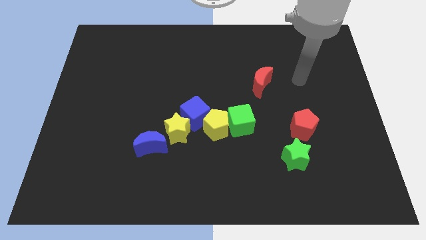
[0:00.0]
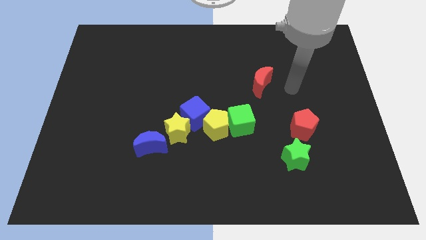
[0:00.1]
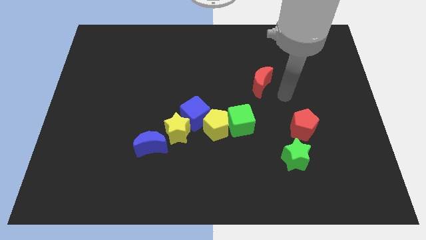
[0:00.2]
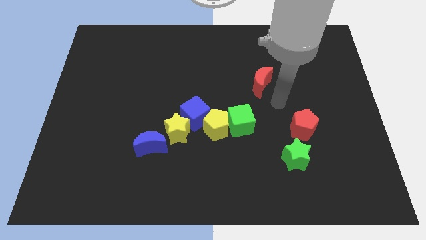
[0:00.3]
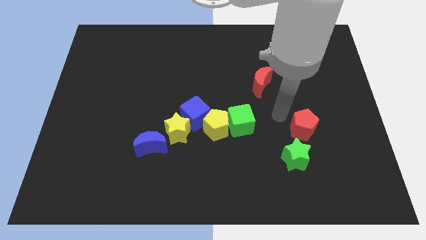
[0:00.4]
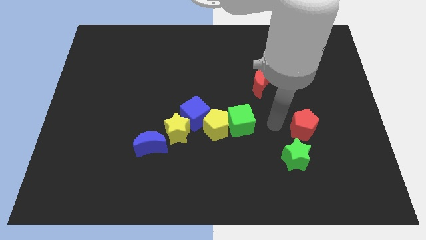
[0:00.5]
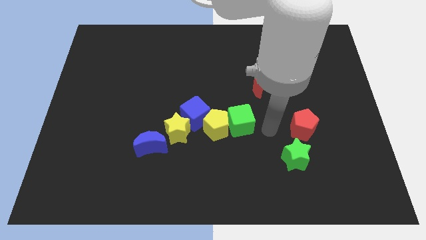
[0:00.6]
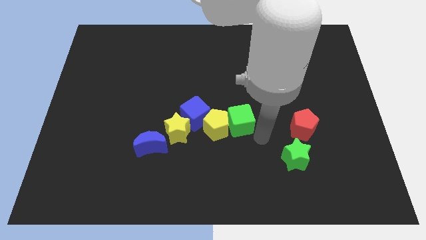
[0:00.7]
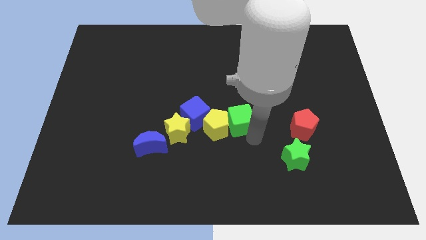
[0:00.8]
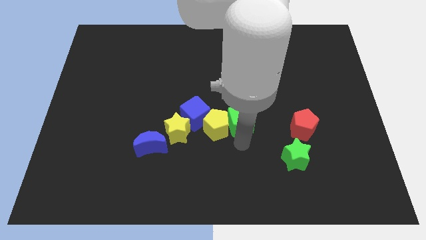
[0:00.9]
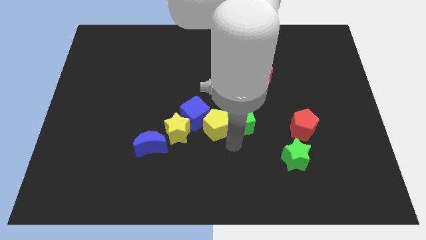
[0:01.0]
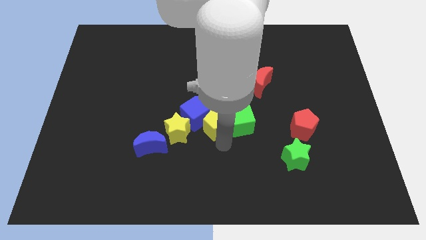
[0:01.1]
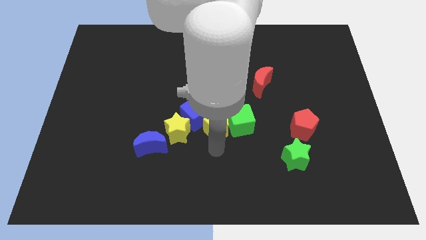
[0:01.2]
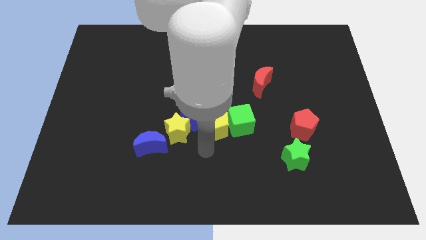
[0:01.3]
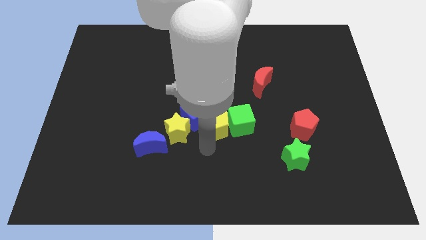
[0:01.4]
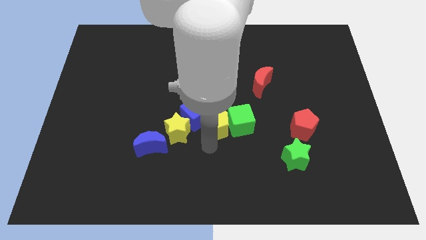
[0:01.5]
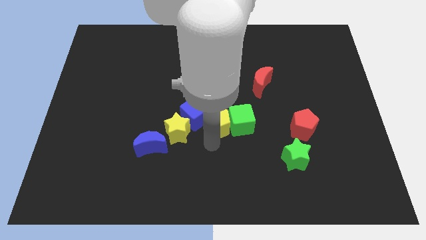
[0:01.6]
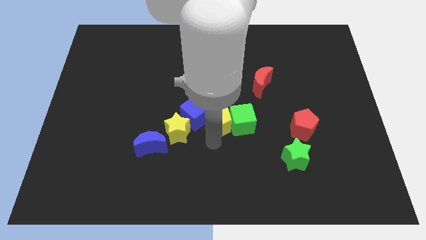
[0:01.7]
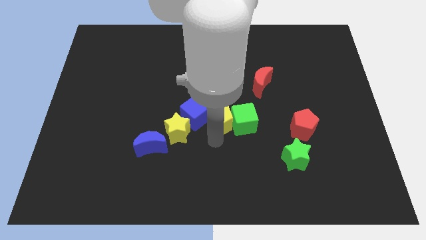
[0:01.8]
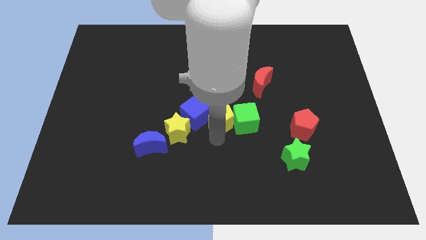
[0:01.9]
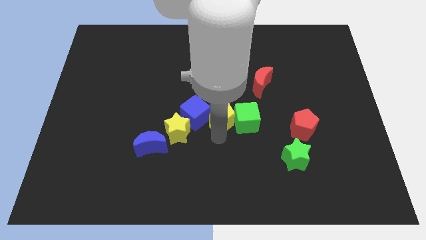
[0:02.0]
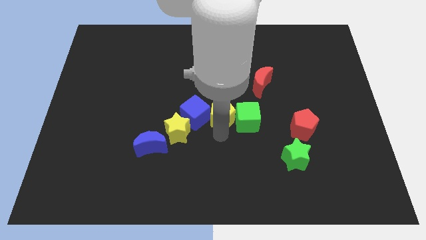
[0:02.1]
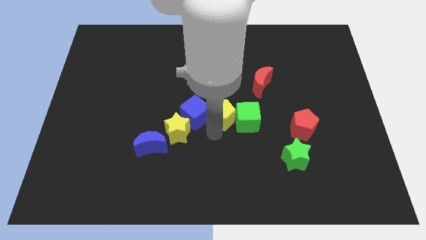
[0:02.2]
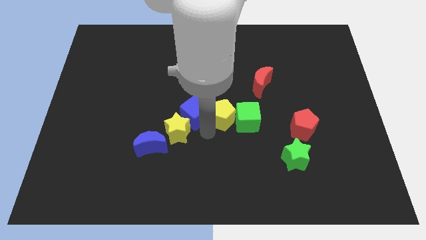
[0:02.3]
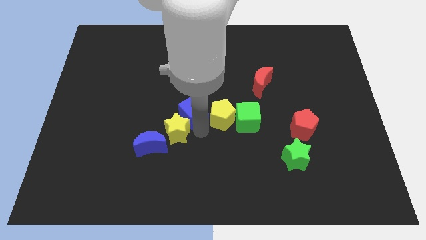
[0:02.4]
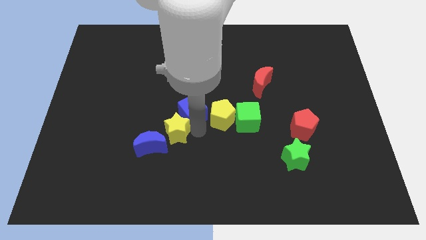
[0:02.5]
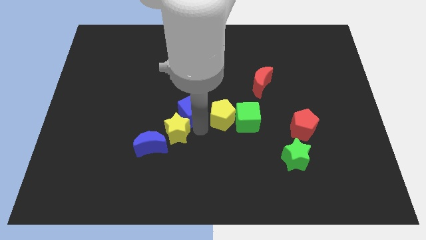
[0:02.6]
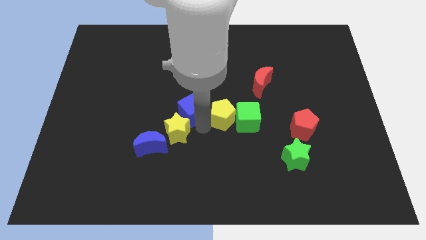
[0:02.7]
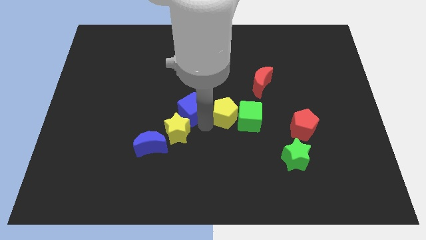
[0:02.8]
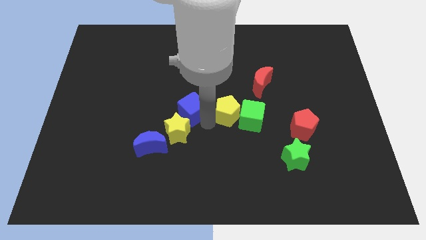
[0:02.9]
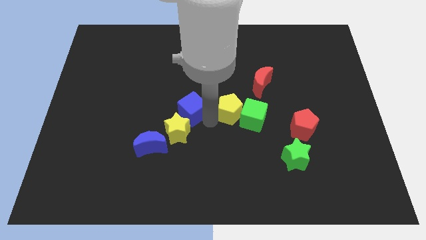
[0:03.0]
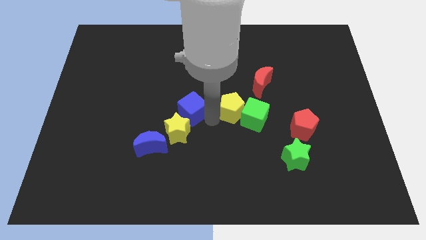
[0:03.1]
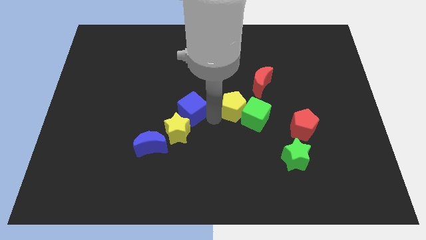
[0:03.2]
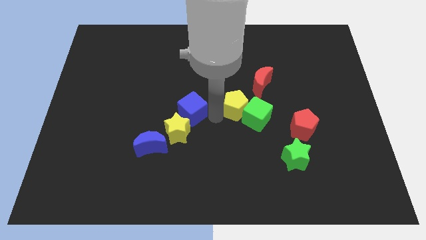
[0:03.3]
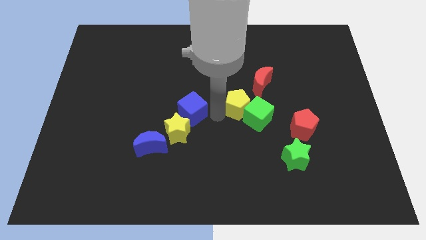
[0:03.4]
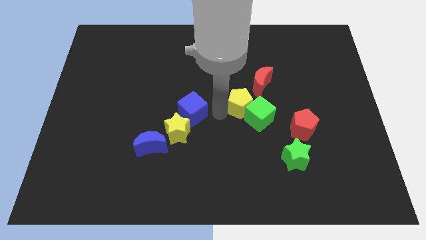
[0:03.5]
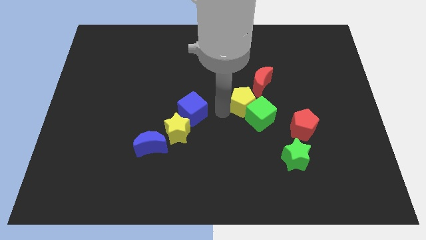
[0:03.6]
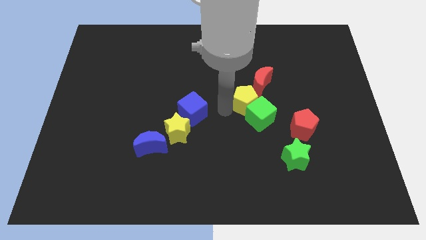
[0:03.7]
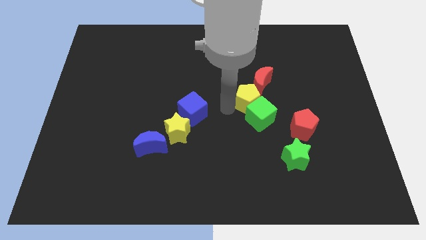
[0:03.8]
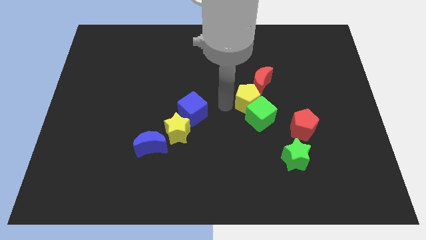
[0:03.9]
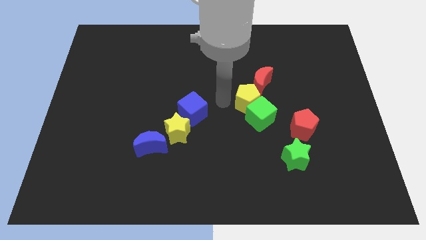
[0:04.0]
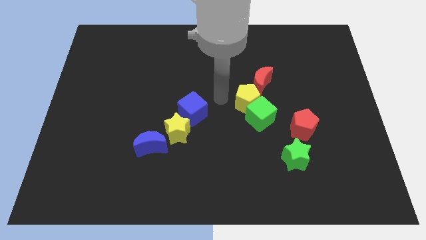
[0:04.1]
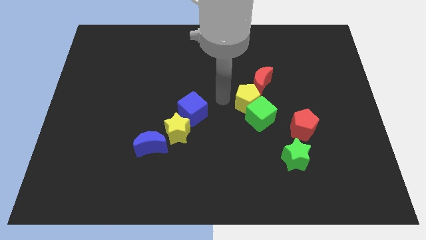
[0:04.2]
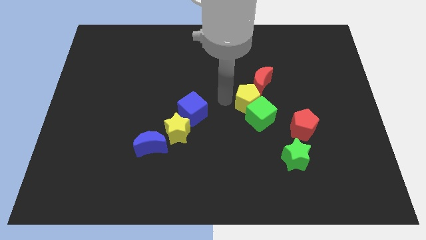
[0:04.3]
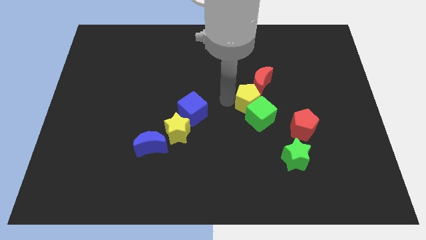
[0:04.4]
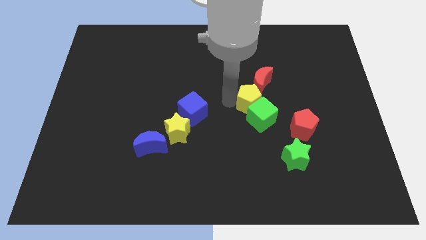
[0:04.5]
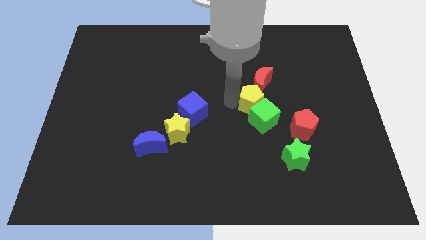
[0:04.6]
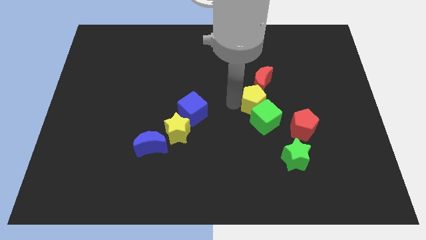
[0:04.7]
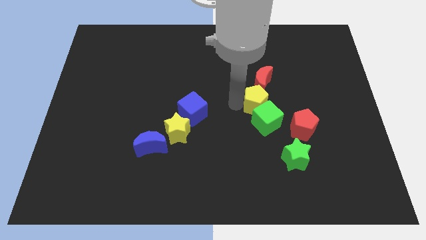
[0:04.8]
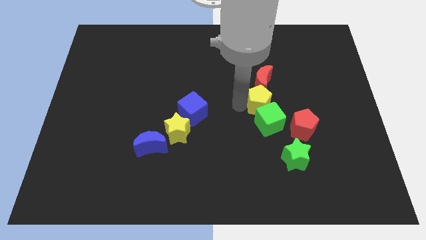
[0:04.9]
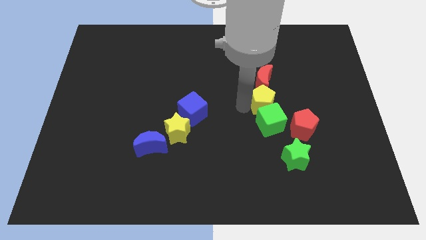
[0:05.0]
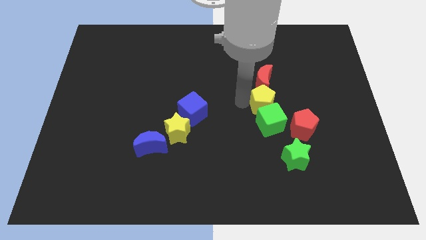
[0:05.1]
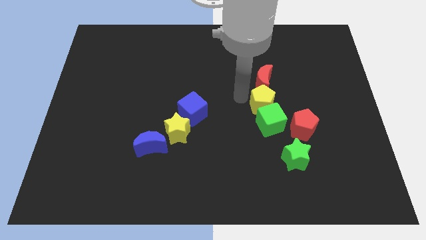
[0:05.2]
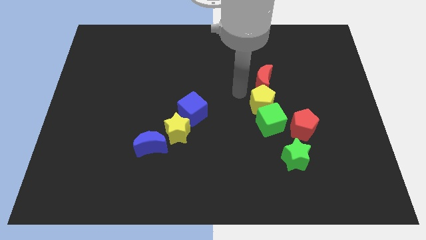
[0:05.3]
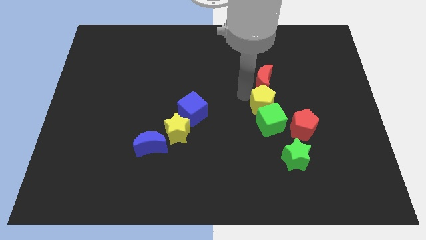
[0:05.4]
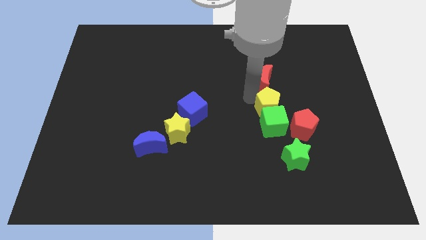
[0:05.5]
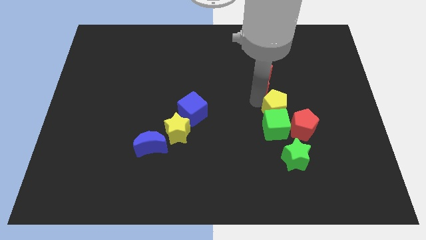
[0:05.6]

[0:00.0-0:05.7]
move the yellow pentagon above the green star

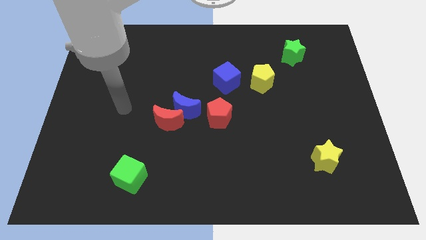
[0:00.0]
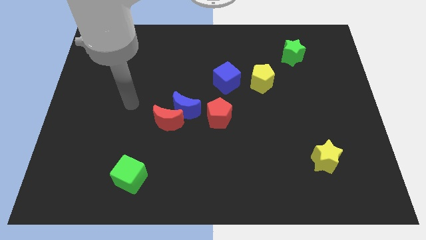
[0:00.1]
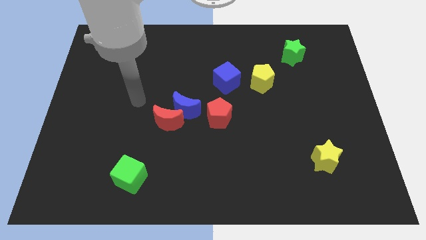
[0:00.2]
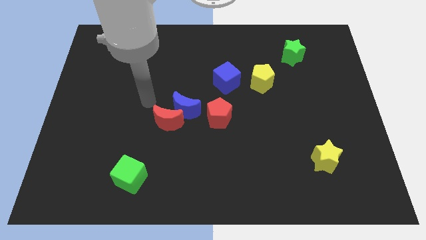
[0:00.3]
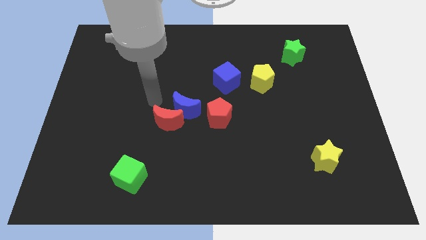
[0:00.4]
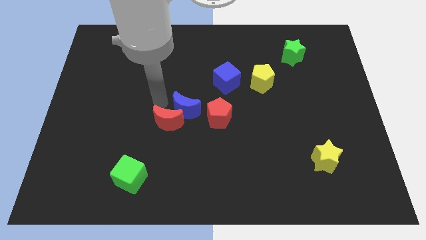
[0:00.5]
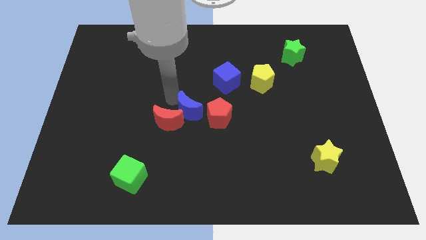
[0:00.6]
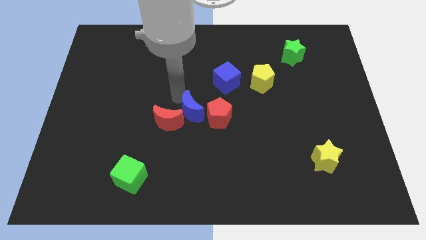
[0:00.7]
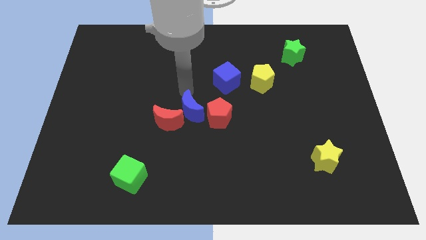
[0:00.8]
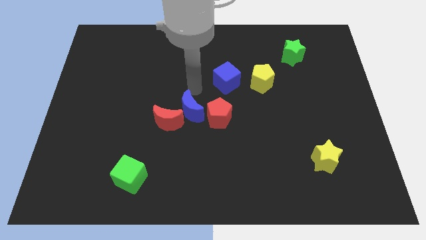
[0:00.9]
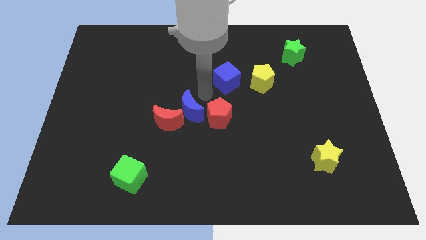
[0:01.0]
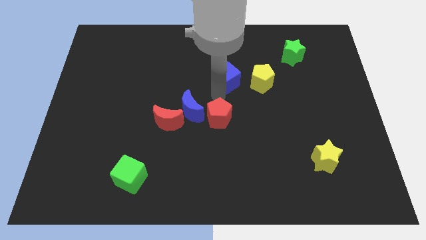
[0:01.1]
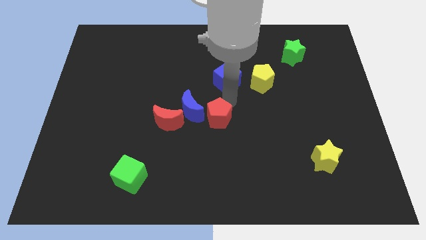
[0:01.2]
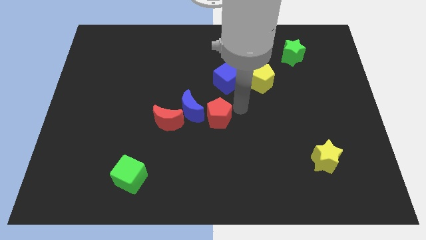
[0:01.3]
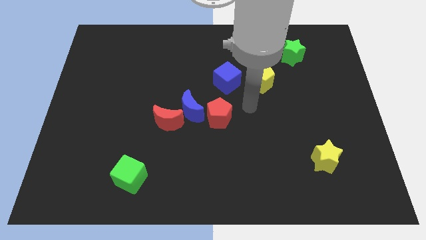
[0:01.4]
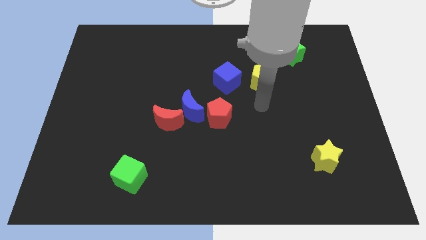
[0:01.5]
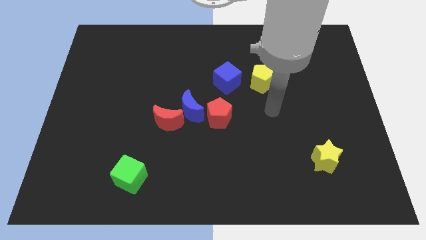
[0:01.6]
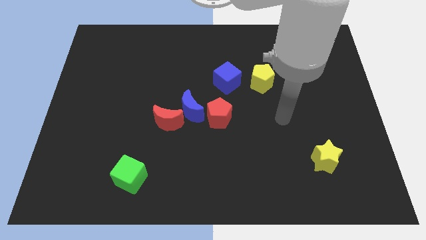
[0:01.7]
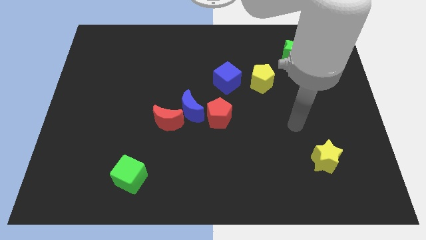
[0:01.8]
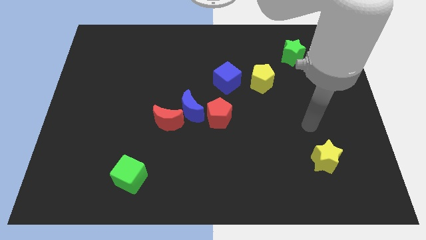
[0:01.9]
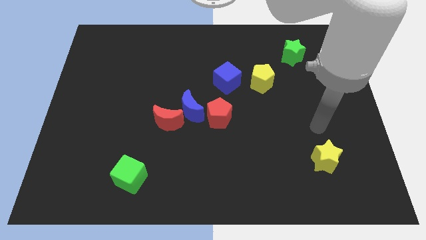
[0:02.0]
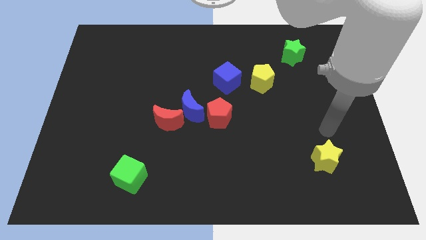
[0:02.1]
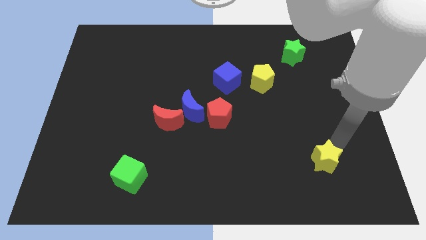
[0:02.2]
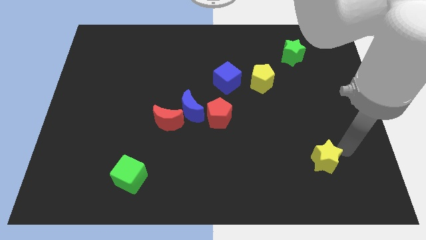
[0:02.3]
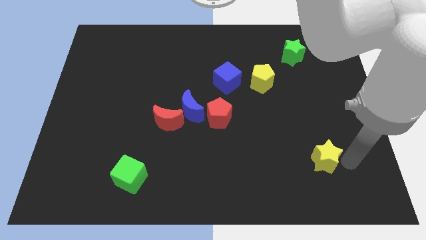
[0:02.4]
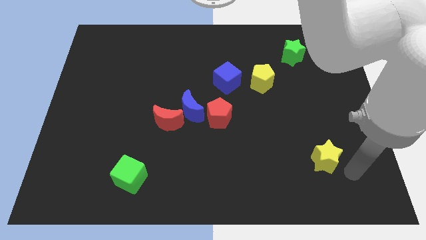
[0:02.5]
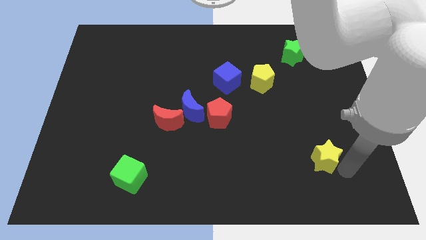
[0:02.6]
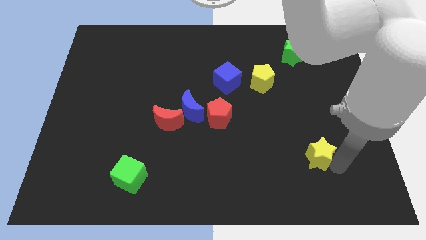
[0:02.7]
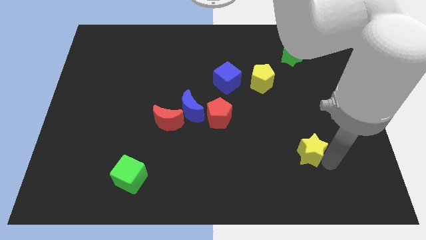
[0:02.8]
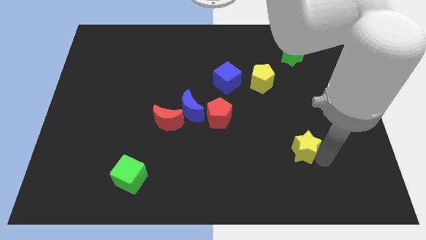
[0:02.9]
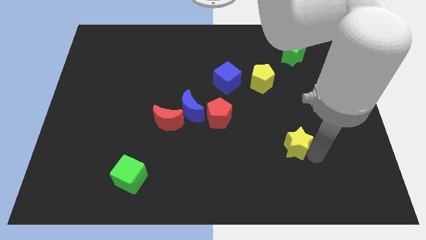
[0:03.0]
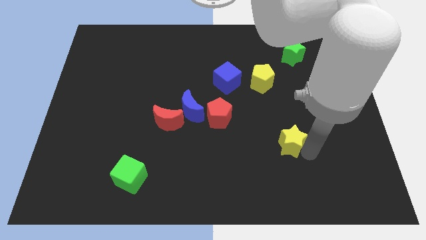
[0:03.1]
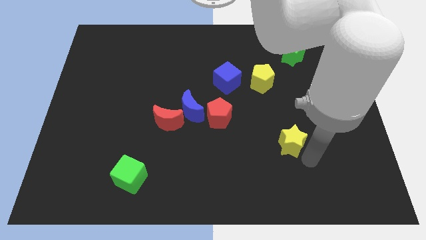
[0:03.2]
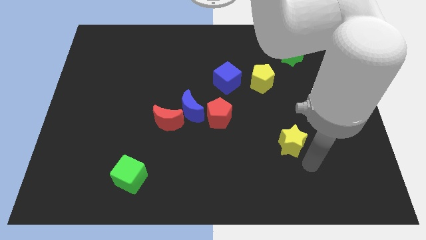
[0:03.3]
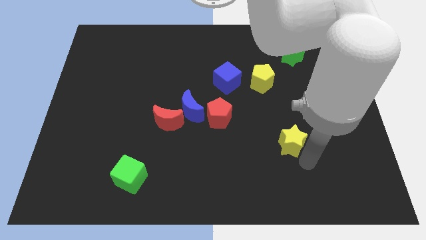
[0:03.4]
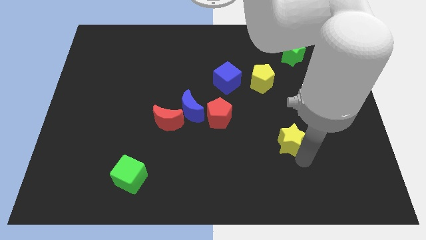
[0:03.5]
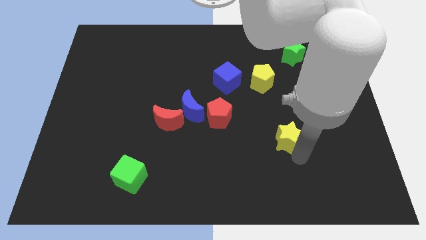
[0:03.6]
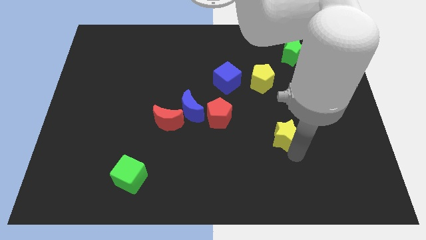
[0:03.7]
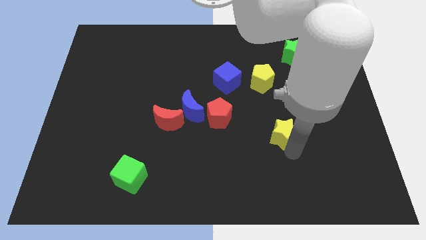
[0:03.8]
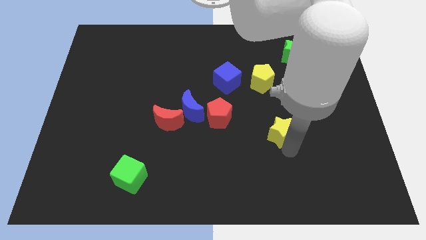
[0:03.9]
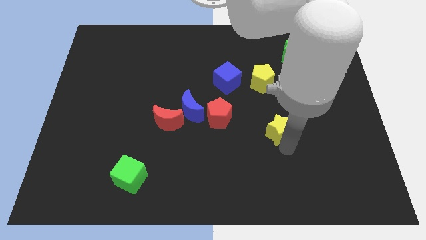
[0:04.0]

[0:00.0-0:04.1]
push the yellow star to the right of the red pentagon
